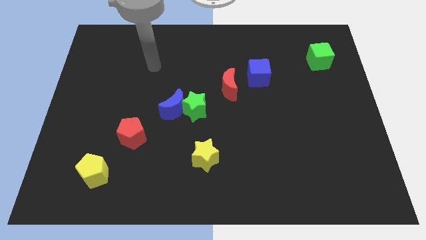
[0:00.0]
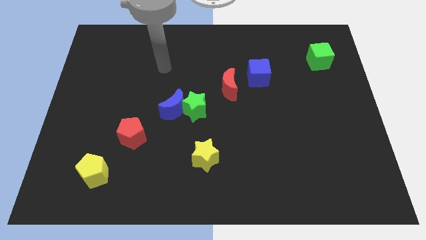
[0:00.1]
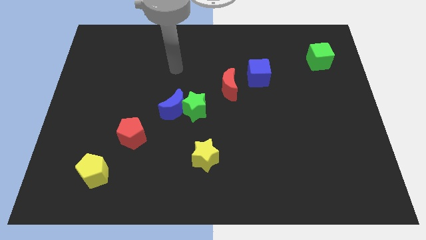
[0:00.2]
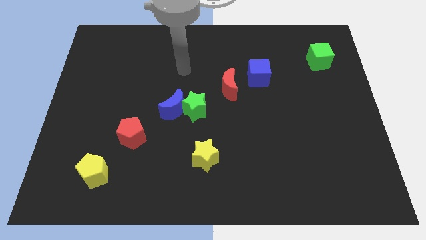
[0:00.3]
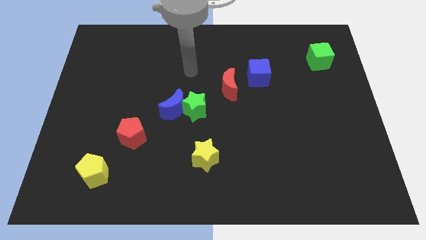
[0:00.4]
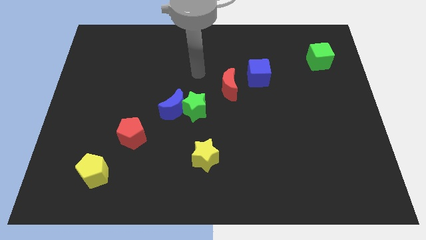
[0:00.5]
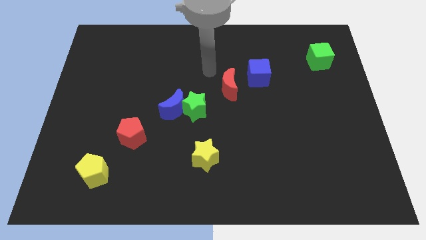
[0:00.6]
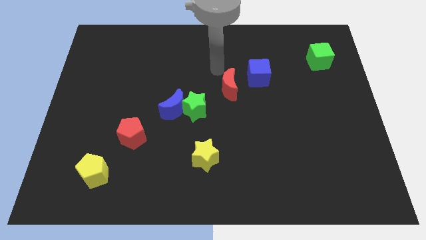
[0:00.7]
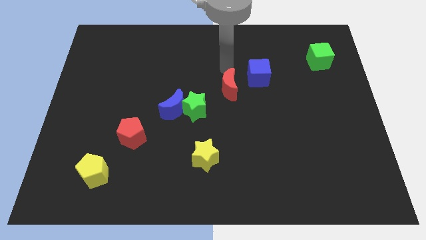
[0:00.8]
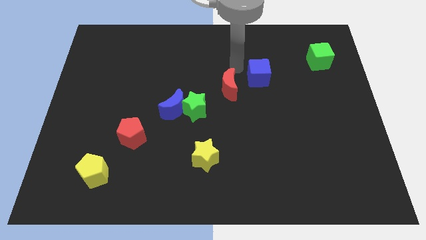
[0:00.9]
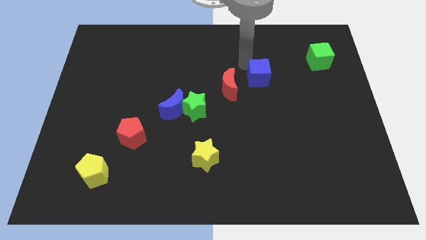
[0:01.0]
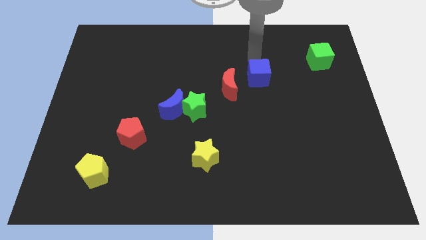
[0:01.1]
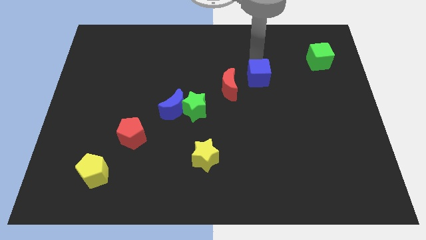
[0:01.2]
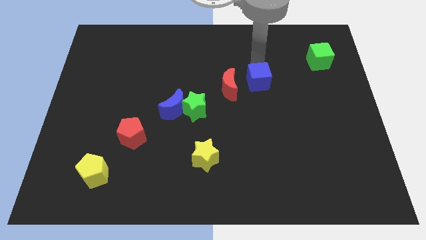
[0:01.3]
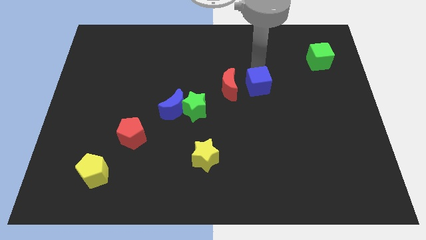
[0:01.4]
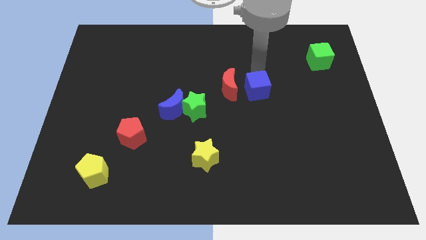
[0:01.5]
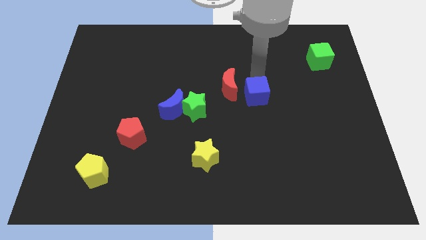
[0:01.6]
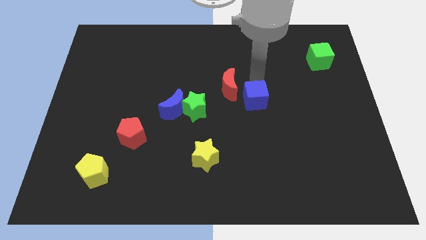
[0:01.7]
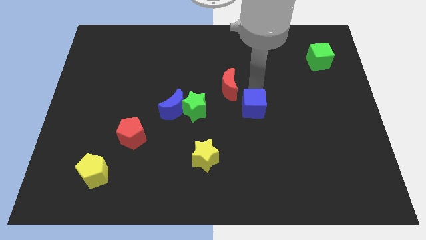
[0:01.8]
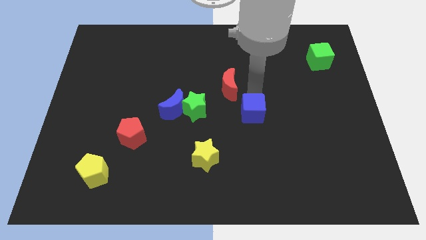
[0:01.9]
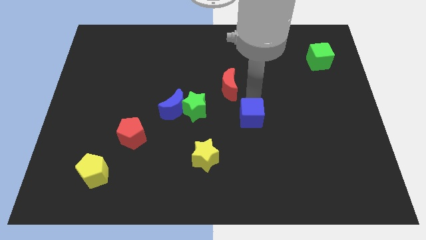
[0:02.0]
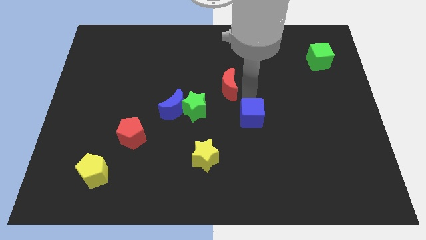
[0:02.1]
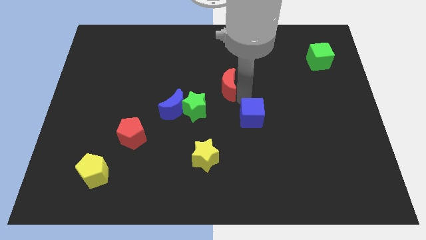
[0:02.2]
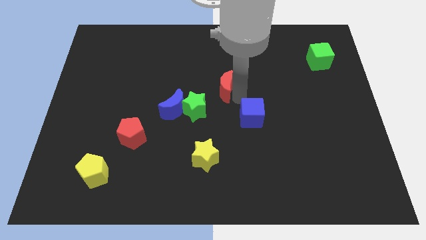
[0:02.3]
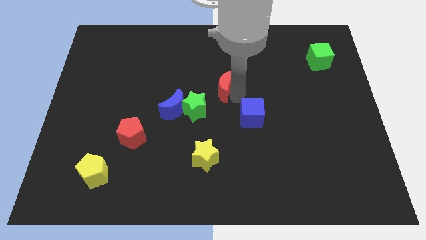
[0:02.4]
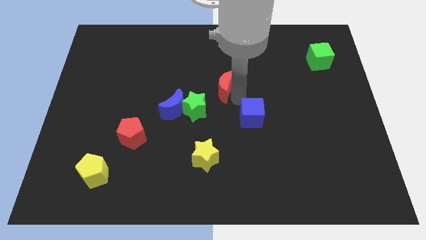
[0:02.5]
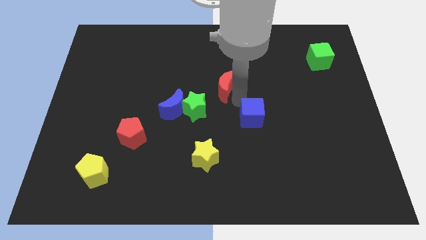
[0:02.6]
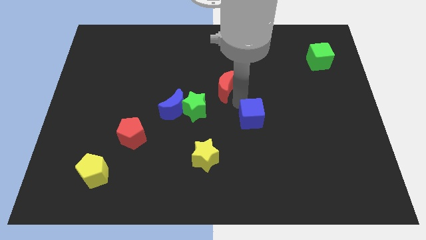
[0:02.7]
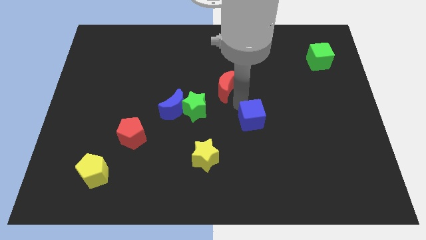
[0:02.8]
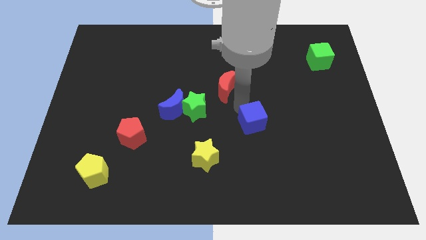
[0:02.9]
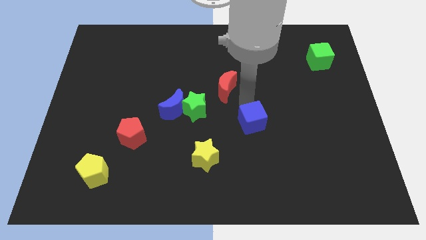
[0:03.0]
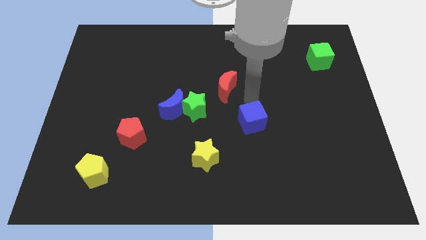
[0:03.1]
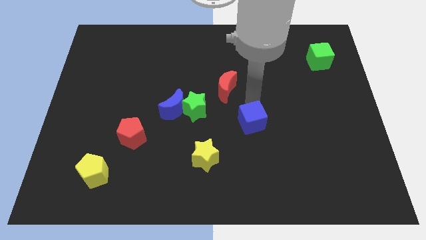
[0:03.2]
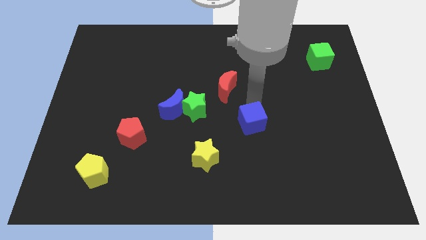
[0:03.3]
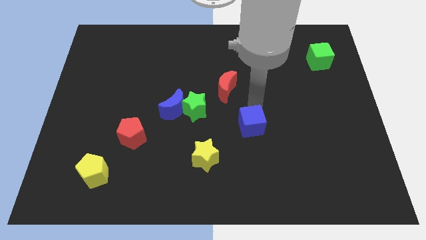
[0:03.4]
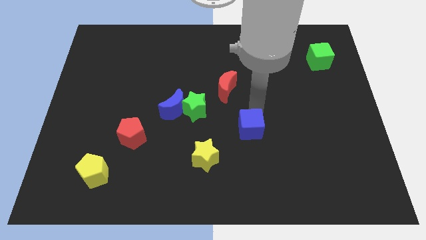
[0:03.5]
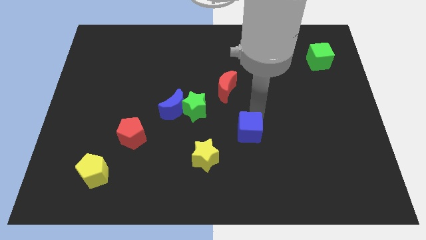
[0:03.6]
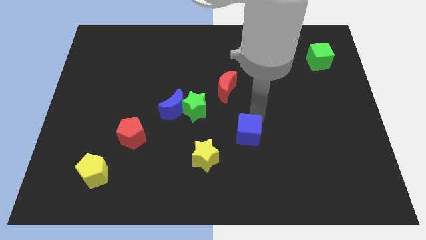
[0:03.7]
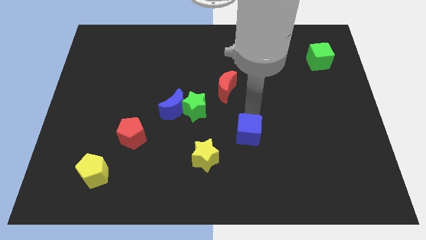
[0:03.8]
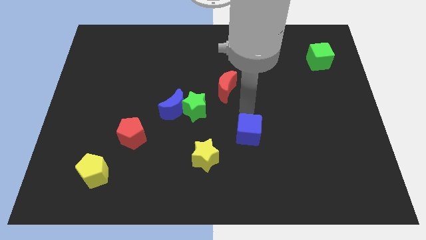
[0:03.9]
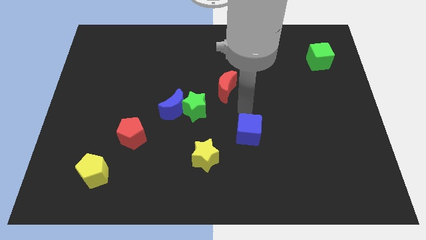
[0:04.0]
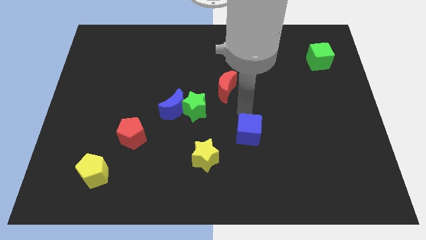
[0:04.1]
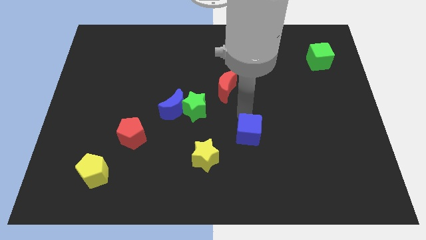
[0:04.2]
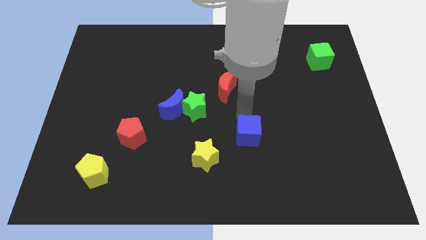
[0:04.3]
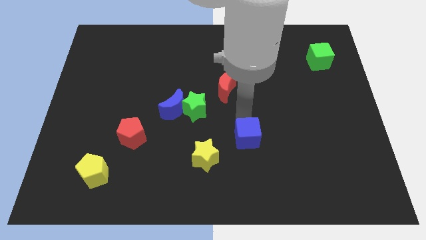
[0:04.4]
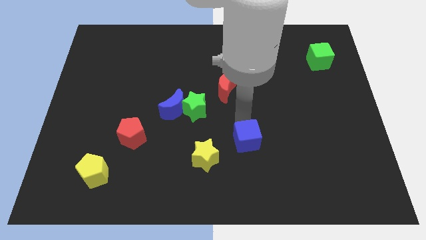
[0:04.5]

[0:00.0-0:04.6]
slide the blue cube right of the yellow star

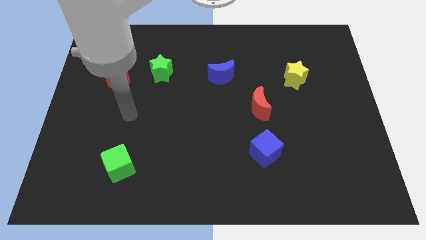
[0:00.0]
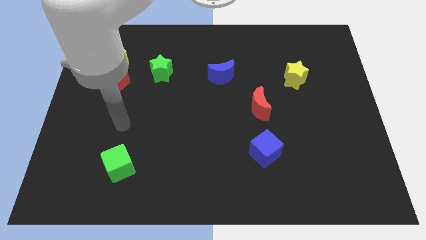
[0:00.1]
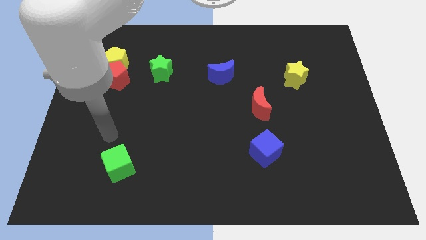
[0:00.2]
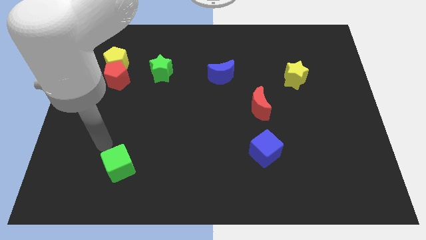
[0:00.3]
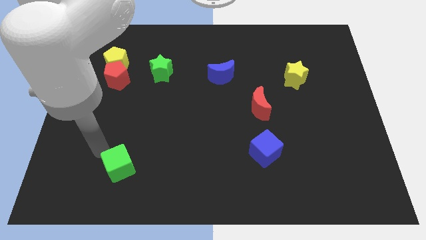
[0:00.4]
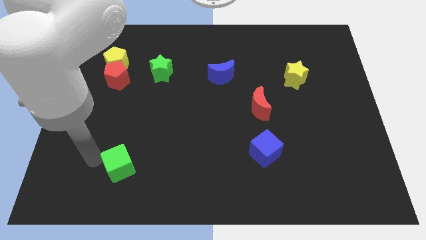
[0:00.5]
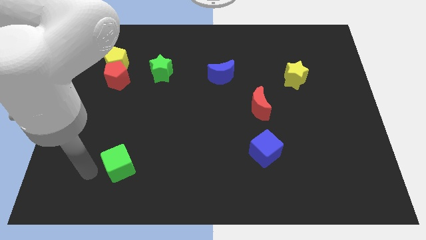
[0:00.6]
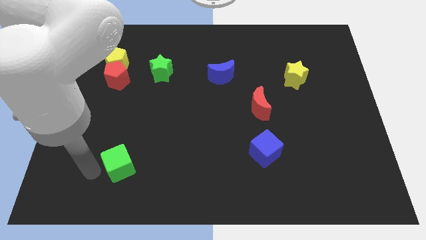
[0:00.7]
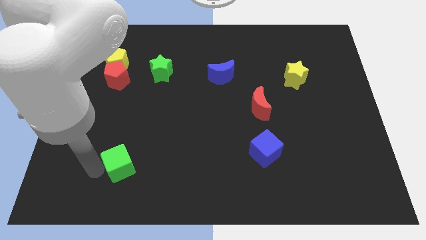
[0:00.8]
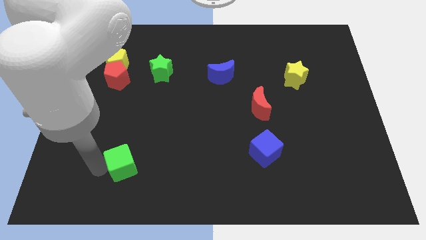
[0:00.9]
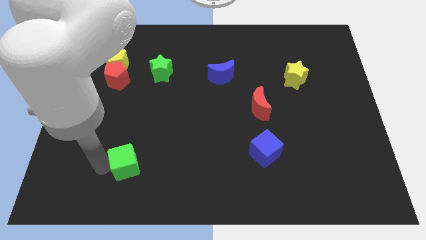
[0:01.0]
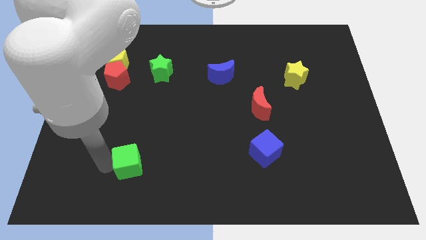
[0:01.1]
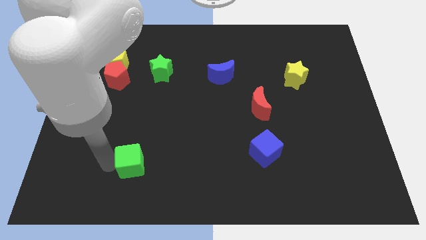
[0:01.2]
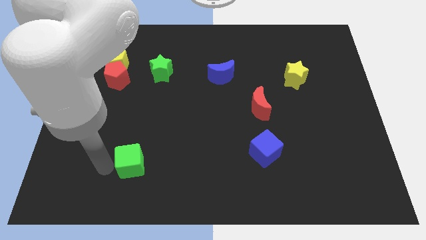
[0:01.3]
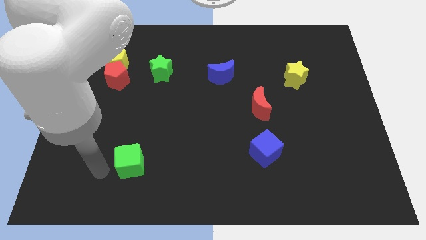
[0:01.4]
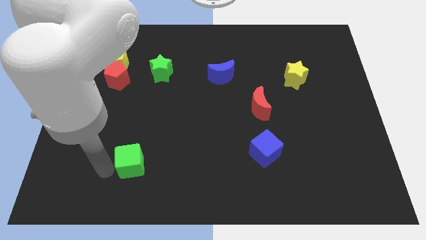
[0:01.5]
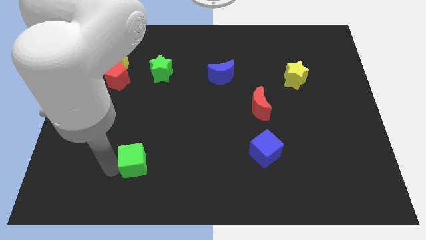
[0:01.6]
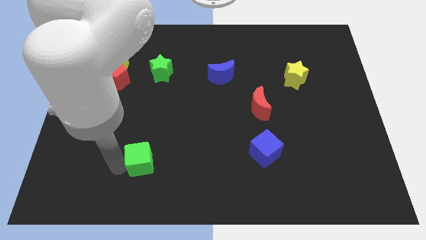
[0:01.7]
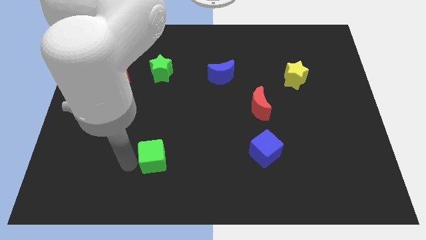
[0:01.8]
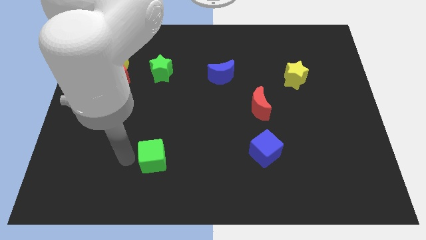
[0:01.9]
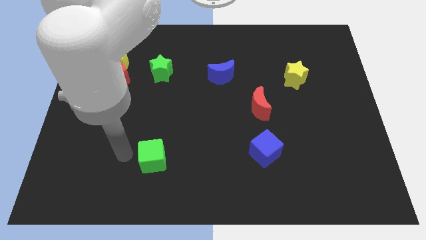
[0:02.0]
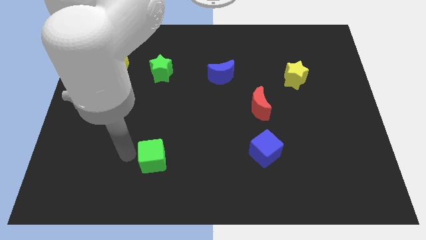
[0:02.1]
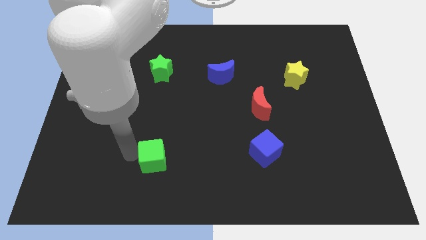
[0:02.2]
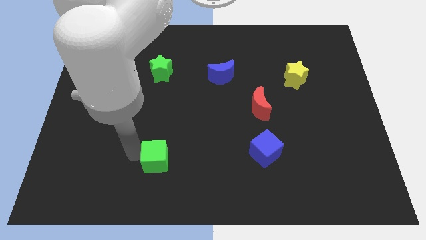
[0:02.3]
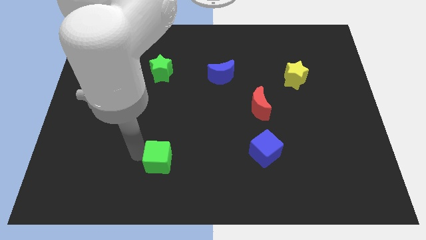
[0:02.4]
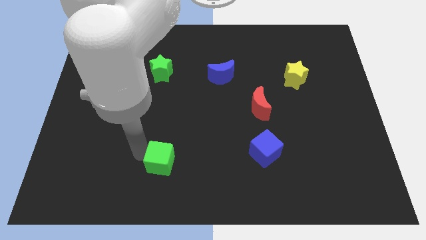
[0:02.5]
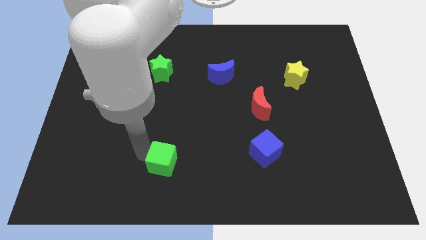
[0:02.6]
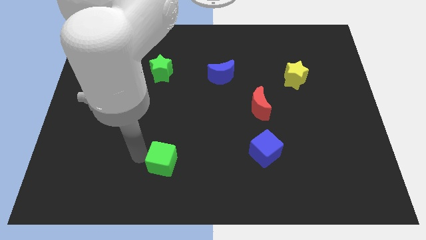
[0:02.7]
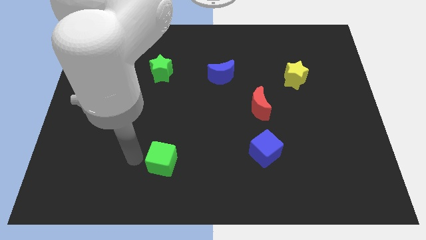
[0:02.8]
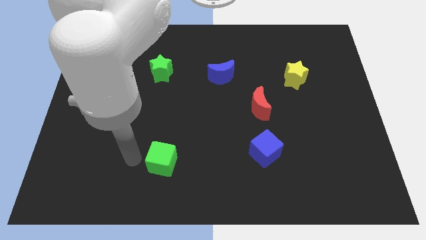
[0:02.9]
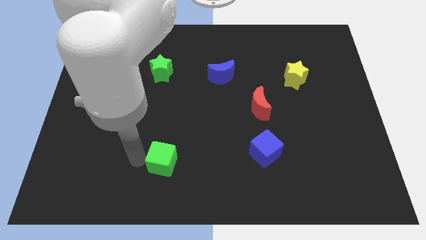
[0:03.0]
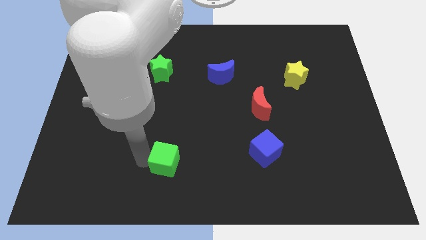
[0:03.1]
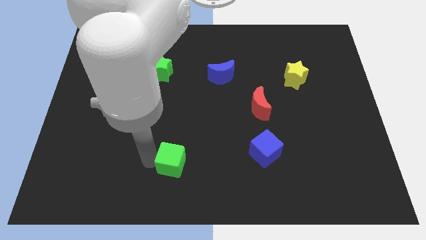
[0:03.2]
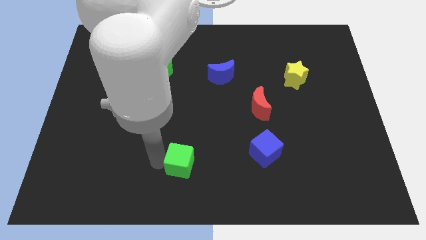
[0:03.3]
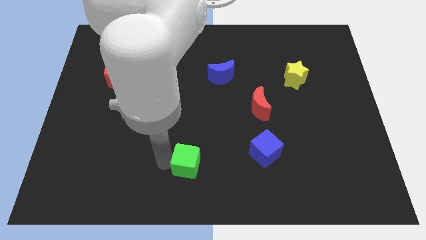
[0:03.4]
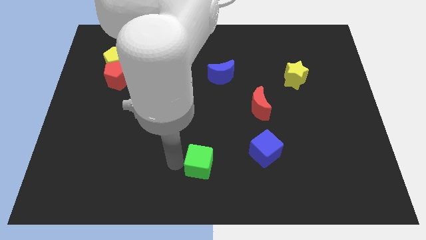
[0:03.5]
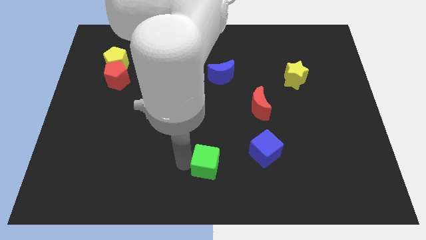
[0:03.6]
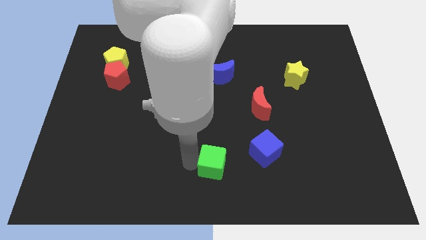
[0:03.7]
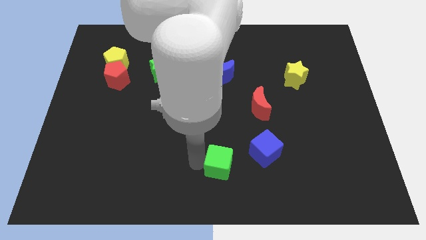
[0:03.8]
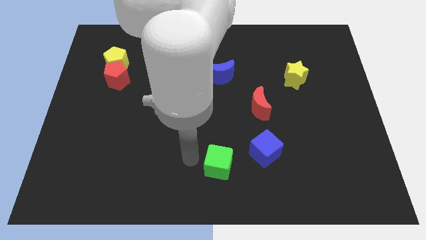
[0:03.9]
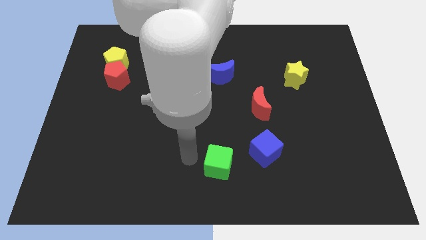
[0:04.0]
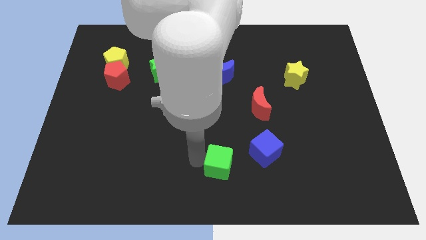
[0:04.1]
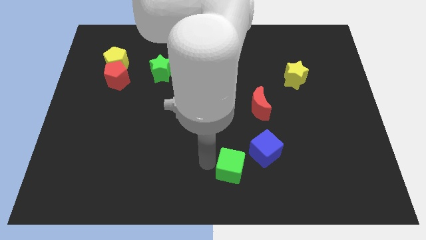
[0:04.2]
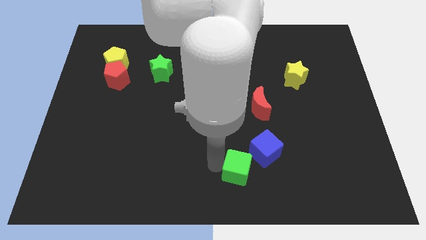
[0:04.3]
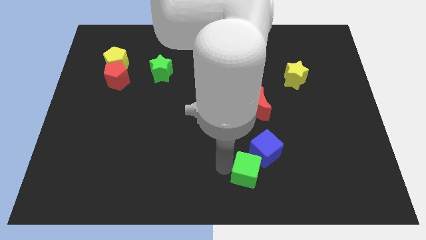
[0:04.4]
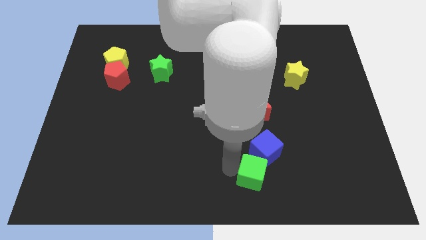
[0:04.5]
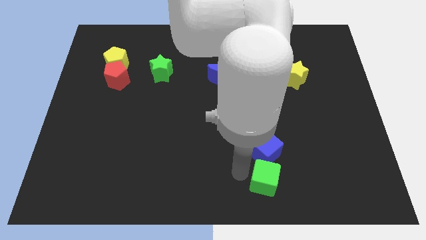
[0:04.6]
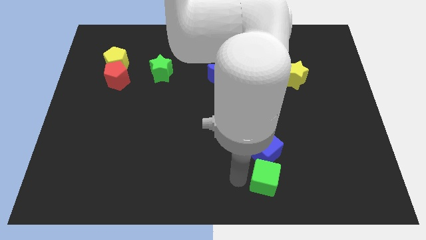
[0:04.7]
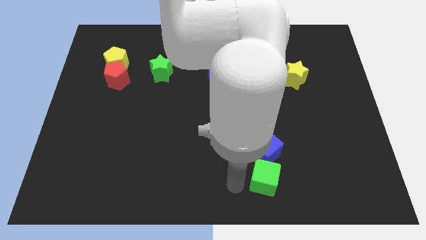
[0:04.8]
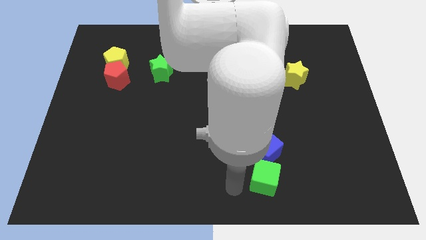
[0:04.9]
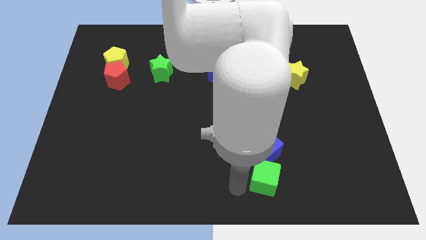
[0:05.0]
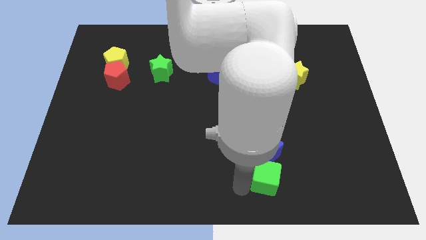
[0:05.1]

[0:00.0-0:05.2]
move the green cube to the bottom right of the blue cube
